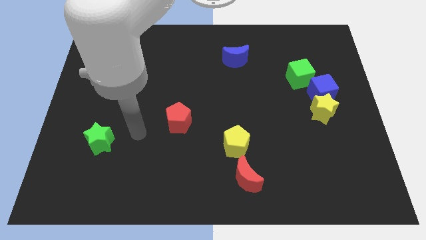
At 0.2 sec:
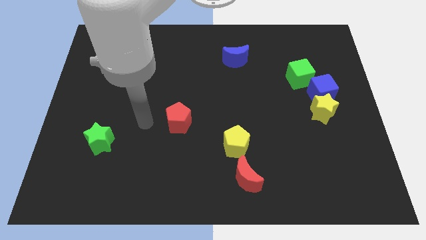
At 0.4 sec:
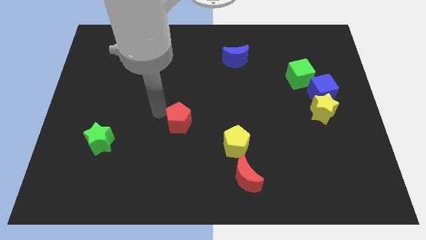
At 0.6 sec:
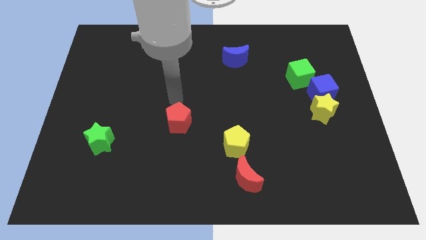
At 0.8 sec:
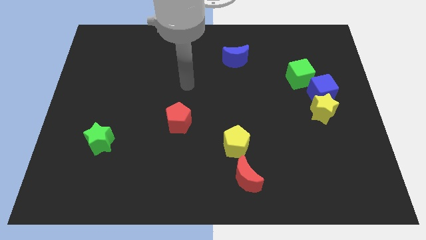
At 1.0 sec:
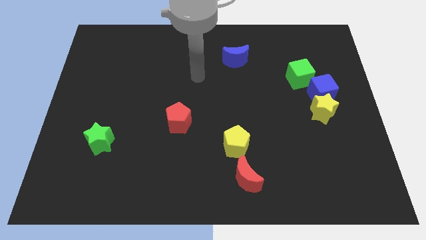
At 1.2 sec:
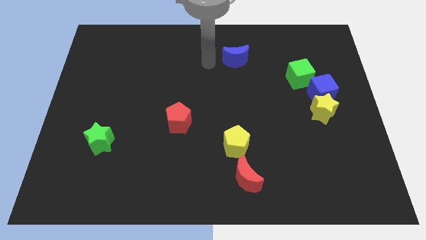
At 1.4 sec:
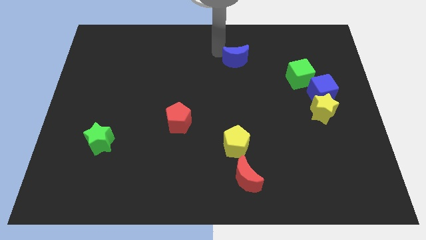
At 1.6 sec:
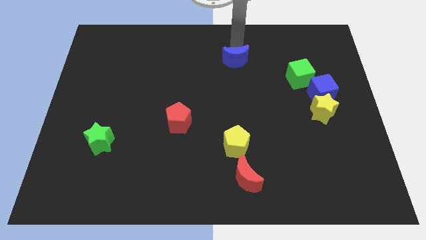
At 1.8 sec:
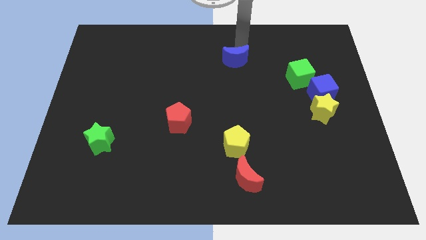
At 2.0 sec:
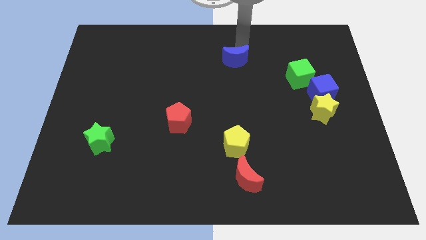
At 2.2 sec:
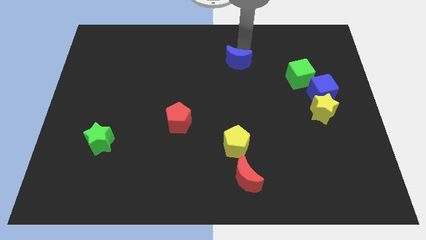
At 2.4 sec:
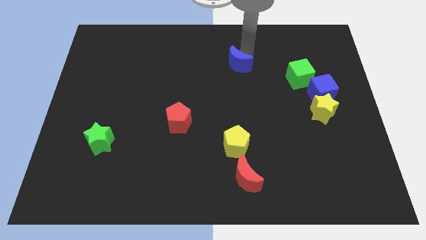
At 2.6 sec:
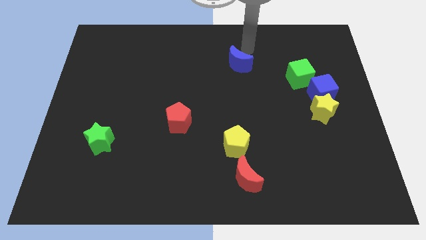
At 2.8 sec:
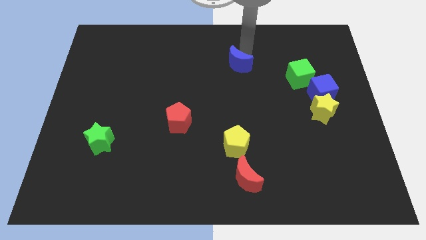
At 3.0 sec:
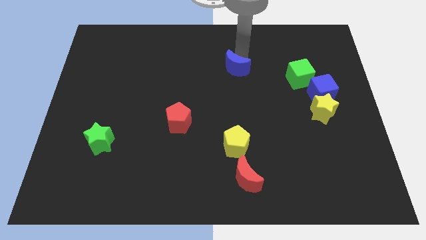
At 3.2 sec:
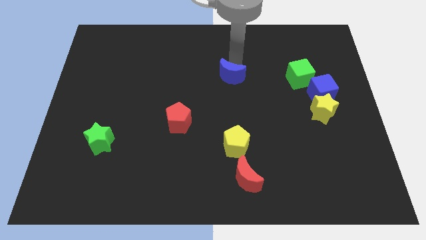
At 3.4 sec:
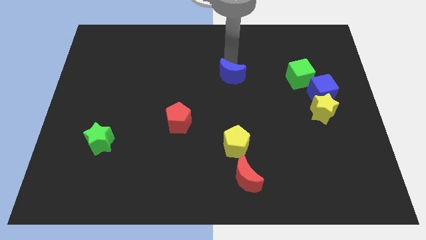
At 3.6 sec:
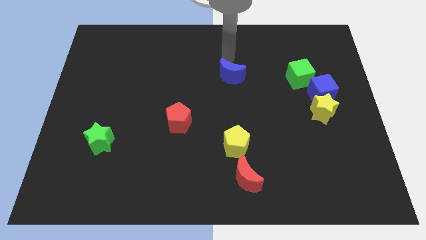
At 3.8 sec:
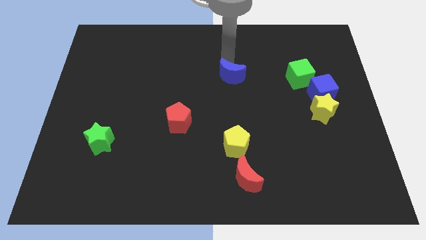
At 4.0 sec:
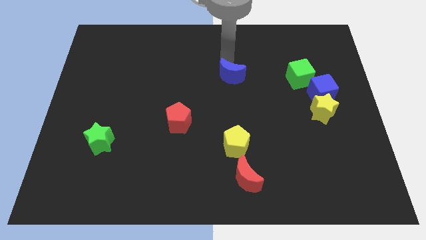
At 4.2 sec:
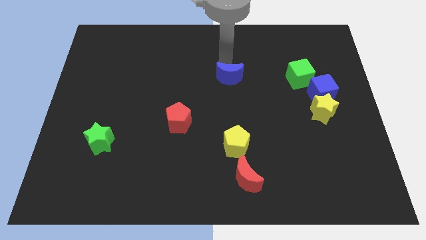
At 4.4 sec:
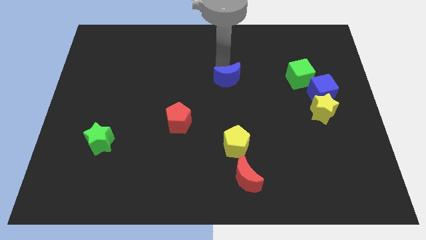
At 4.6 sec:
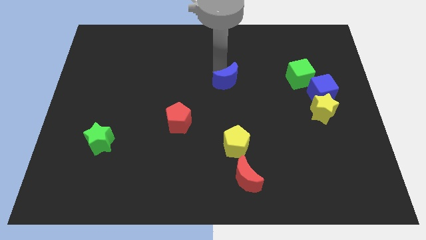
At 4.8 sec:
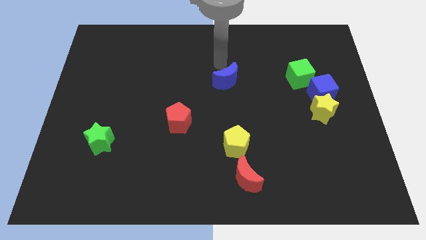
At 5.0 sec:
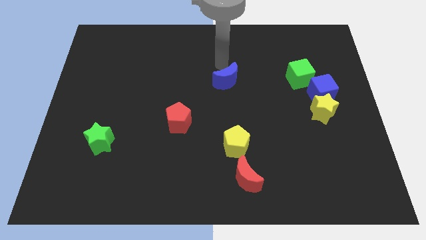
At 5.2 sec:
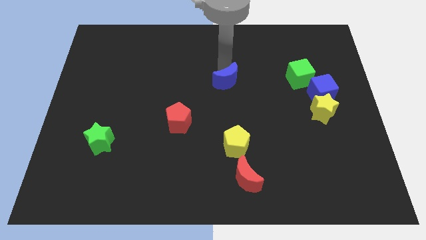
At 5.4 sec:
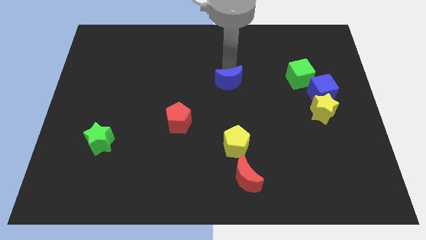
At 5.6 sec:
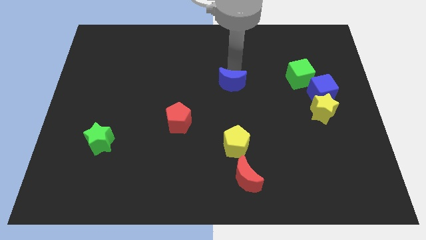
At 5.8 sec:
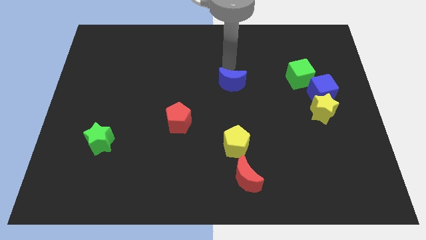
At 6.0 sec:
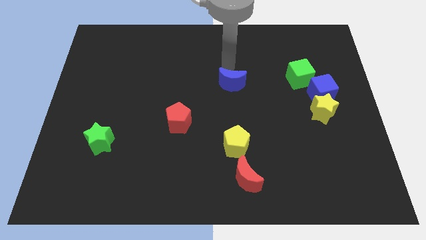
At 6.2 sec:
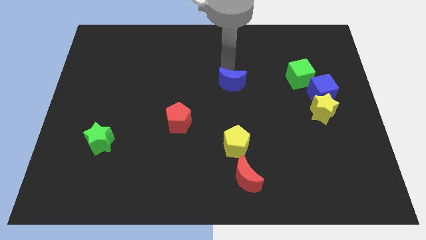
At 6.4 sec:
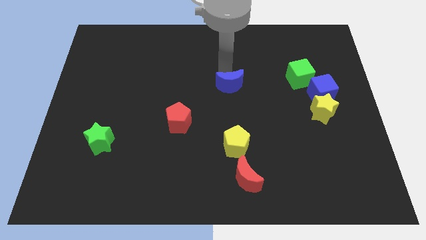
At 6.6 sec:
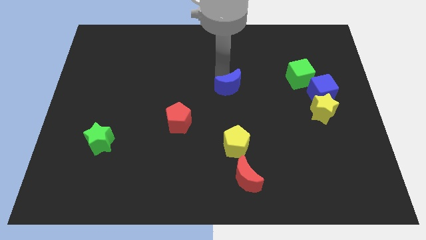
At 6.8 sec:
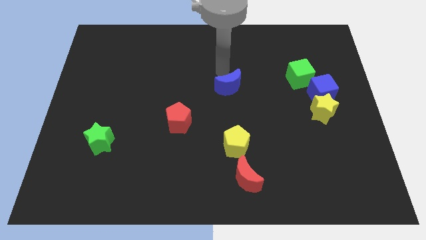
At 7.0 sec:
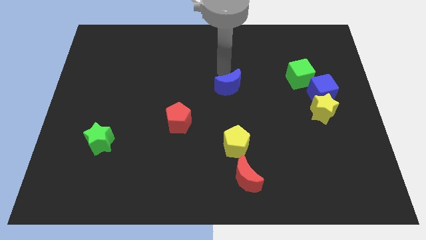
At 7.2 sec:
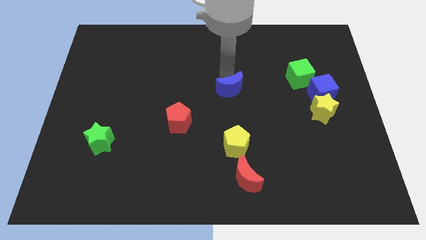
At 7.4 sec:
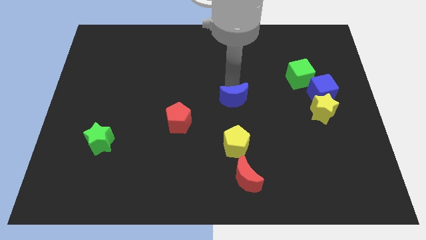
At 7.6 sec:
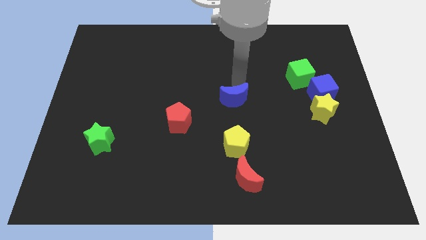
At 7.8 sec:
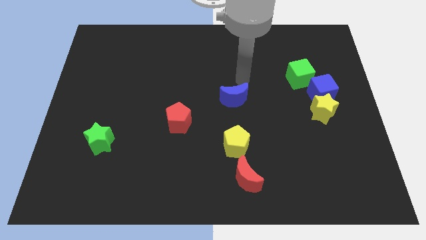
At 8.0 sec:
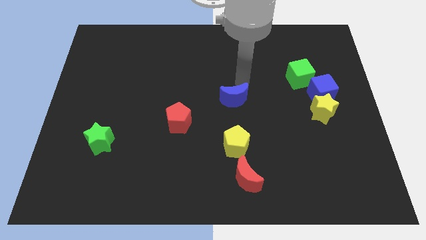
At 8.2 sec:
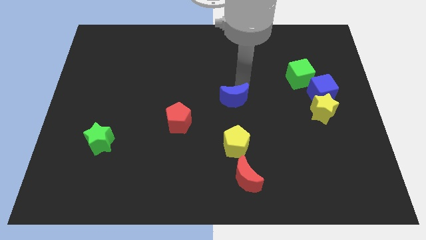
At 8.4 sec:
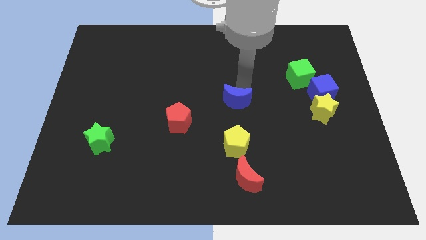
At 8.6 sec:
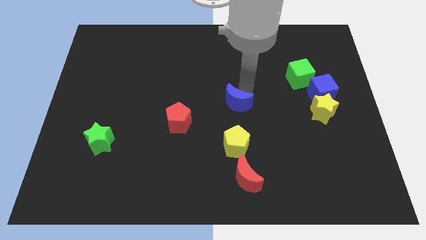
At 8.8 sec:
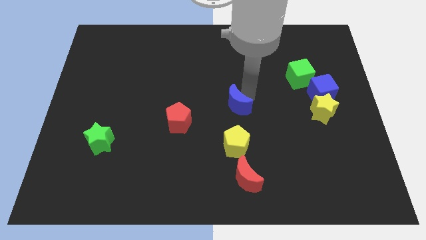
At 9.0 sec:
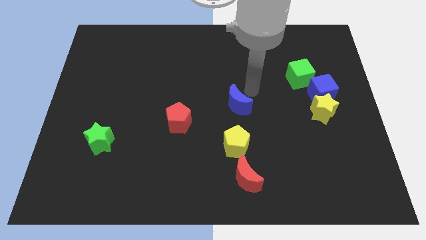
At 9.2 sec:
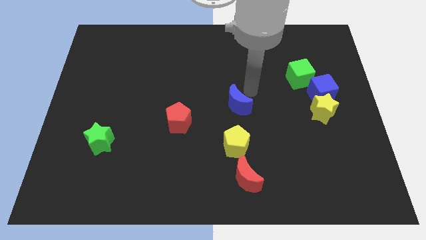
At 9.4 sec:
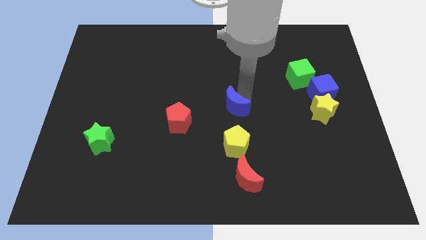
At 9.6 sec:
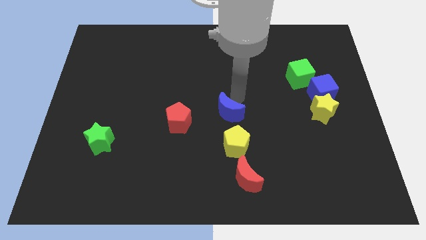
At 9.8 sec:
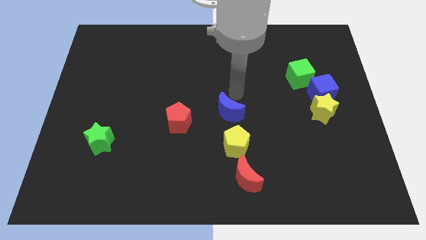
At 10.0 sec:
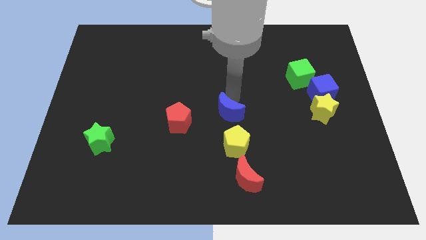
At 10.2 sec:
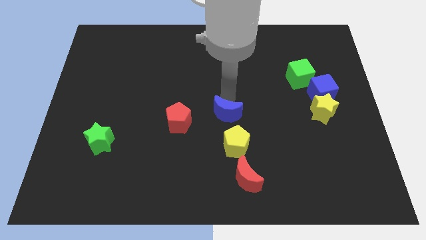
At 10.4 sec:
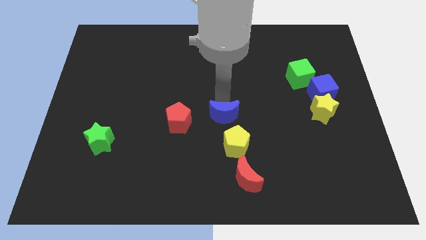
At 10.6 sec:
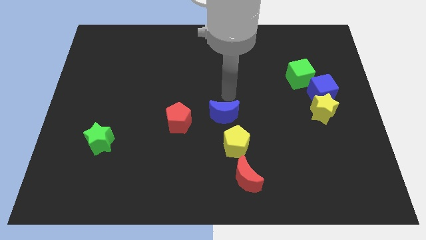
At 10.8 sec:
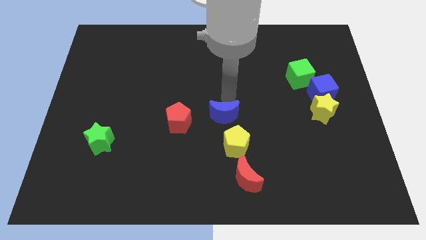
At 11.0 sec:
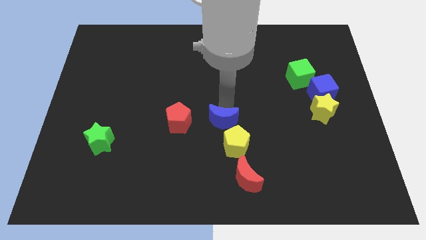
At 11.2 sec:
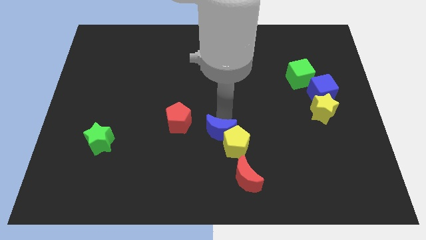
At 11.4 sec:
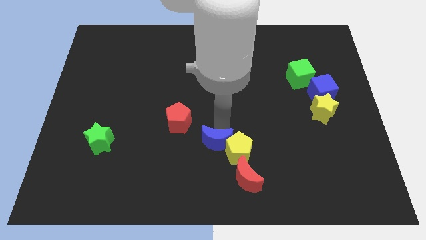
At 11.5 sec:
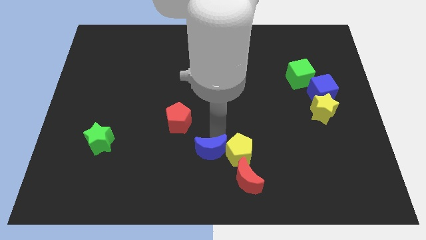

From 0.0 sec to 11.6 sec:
push the blue moon diagonally down and to the left of the yellow pentagon

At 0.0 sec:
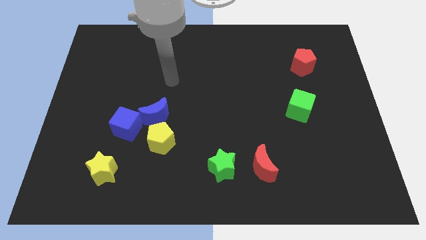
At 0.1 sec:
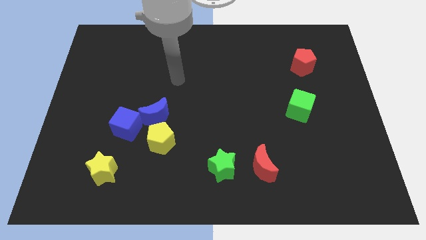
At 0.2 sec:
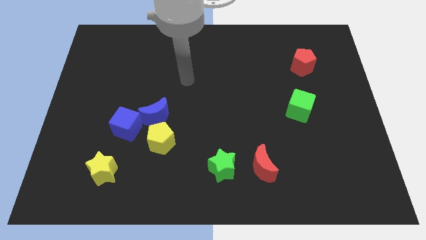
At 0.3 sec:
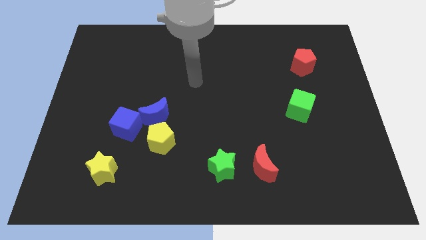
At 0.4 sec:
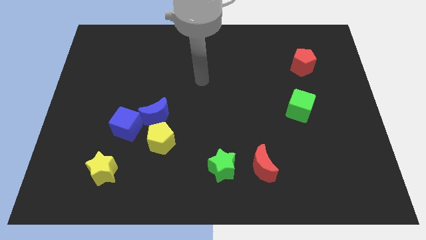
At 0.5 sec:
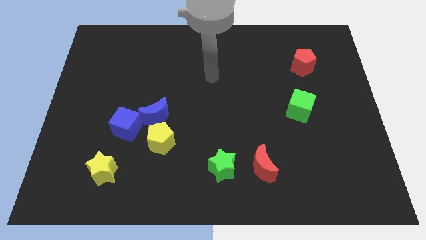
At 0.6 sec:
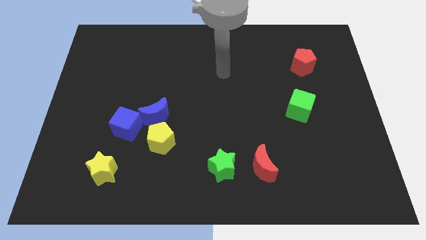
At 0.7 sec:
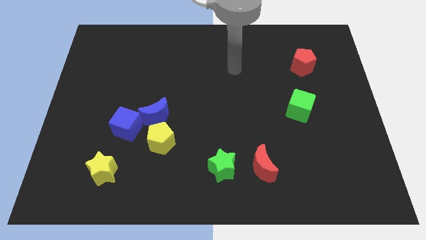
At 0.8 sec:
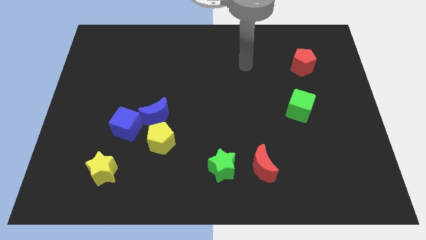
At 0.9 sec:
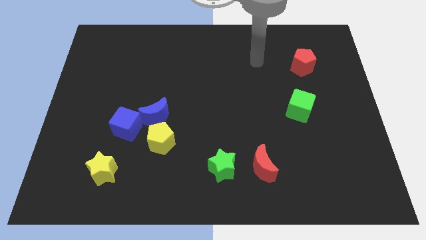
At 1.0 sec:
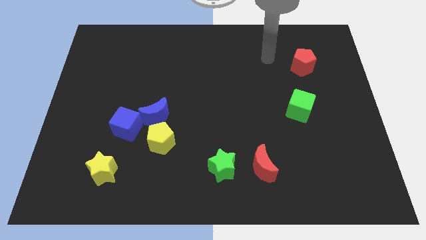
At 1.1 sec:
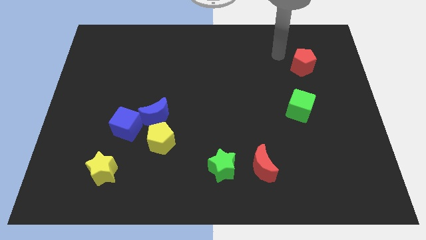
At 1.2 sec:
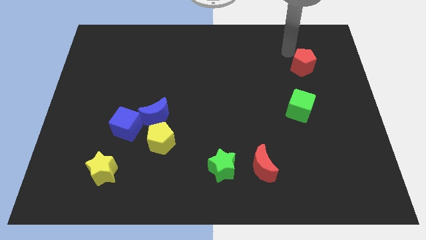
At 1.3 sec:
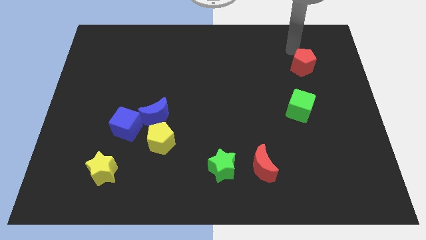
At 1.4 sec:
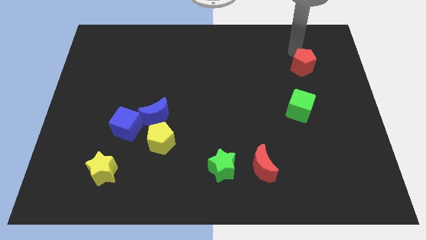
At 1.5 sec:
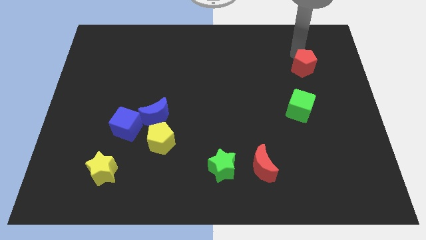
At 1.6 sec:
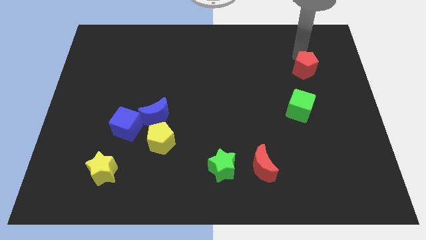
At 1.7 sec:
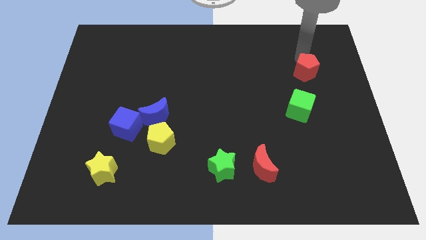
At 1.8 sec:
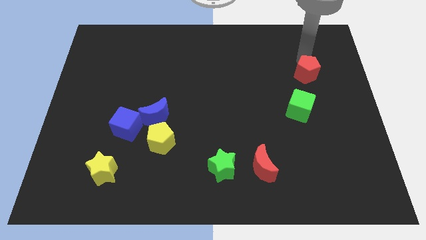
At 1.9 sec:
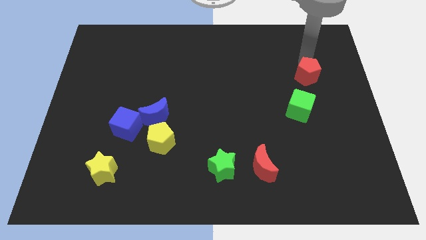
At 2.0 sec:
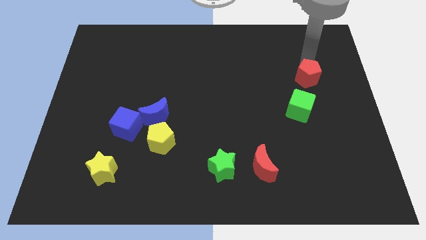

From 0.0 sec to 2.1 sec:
push the red pentagon to the top right side of the green cube
